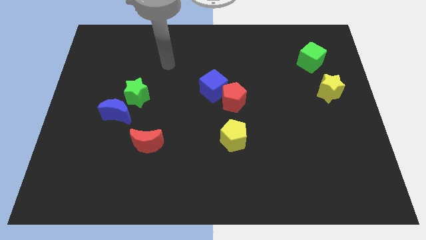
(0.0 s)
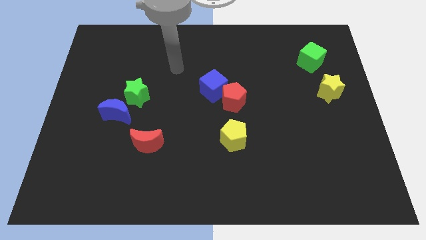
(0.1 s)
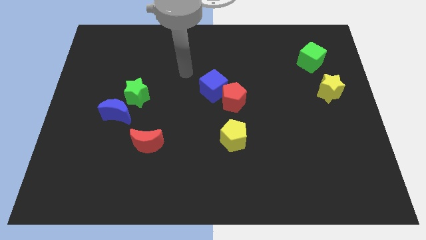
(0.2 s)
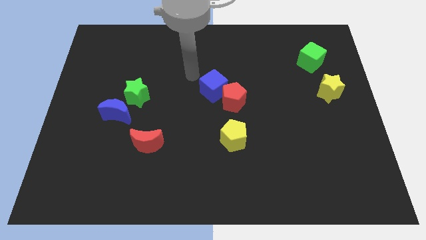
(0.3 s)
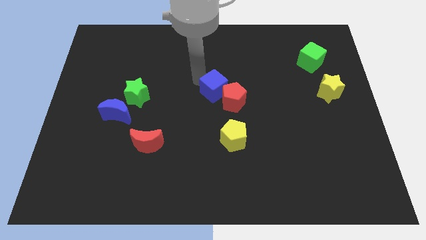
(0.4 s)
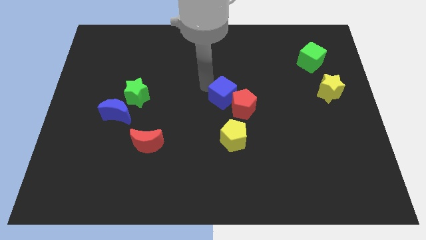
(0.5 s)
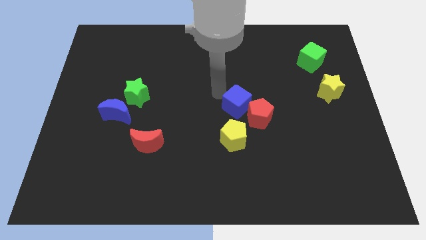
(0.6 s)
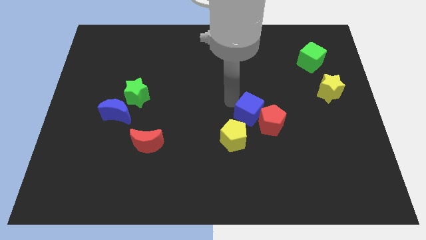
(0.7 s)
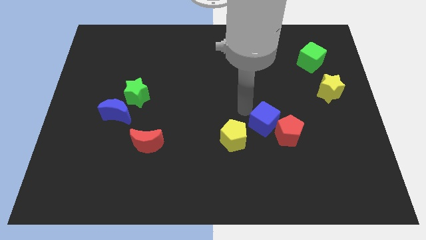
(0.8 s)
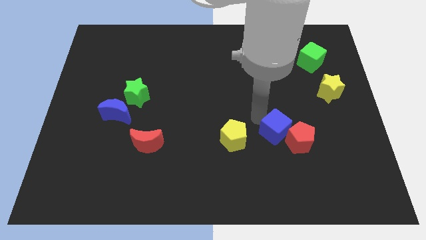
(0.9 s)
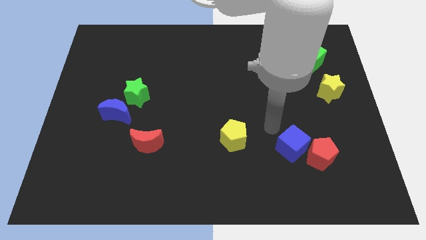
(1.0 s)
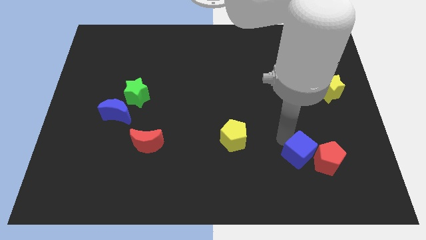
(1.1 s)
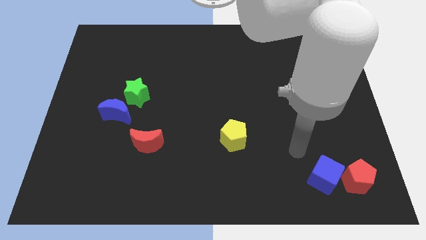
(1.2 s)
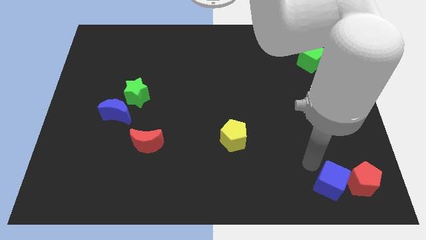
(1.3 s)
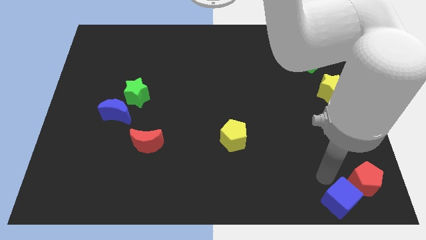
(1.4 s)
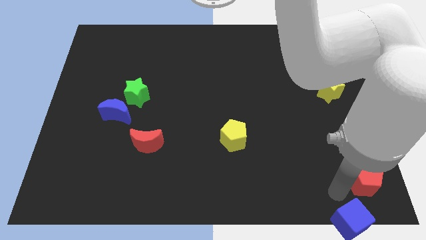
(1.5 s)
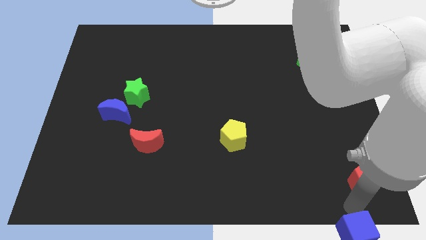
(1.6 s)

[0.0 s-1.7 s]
move the red pentagon away from the blue cube

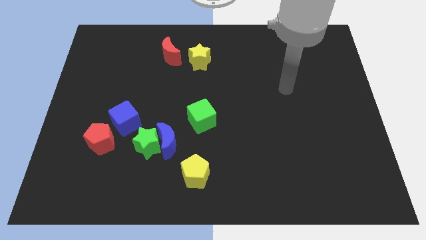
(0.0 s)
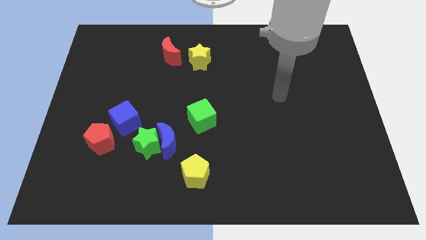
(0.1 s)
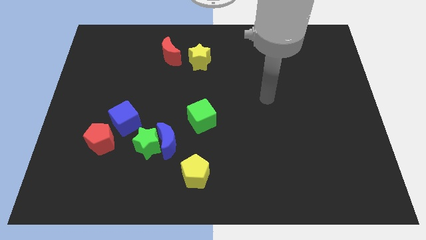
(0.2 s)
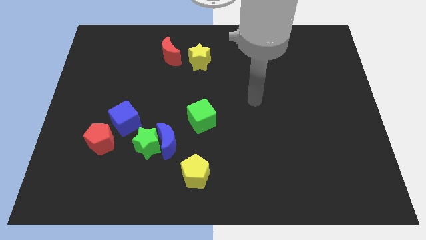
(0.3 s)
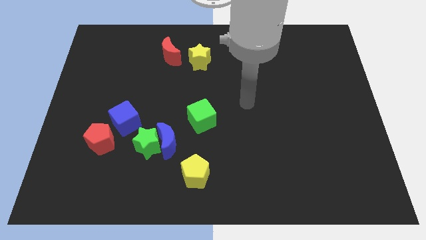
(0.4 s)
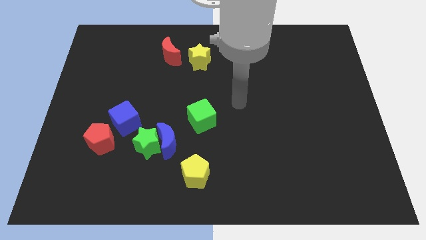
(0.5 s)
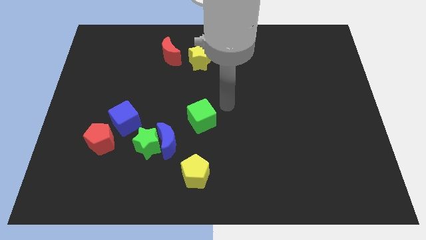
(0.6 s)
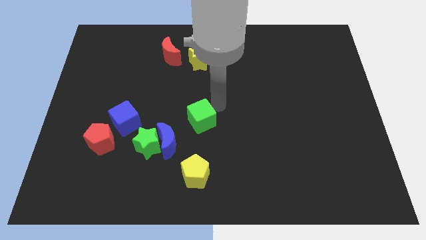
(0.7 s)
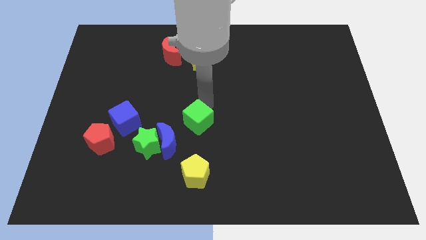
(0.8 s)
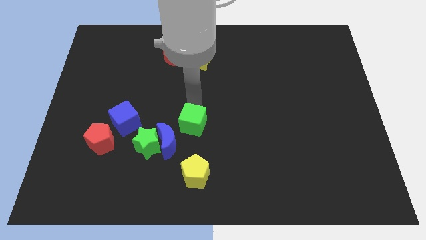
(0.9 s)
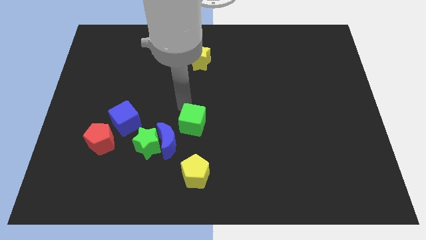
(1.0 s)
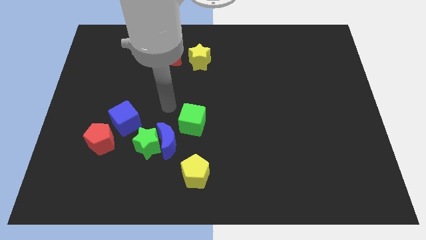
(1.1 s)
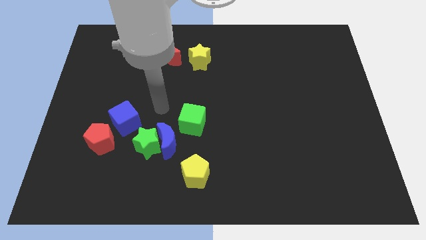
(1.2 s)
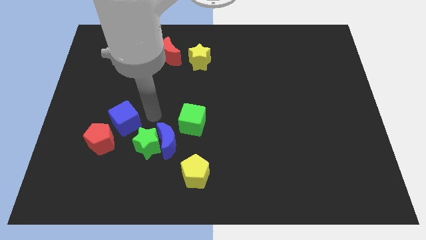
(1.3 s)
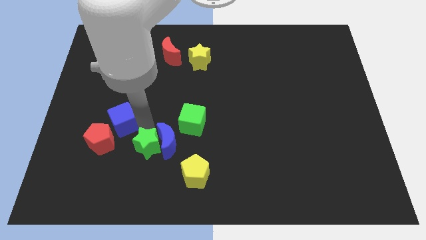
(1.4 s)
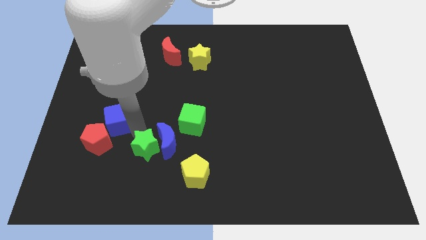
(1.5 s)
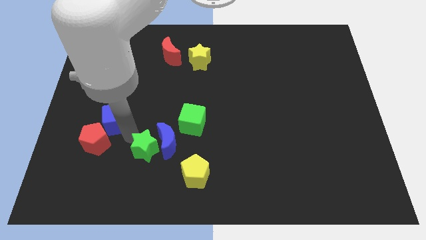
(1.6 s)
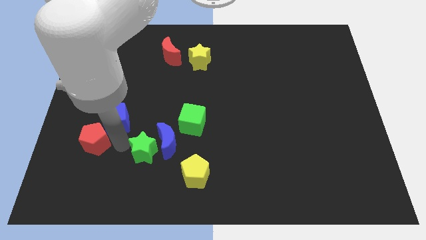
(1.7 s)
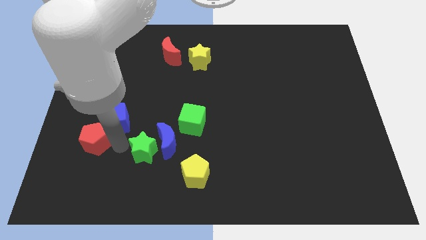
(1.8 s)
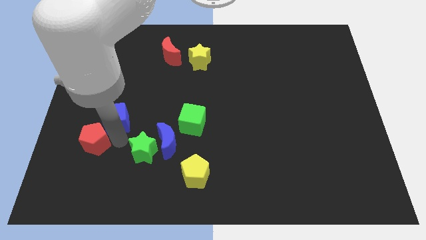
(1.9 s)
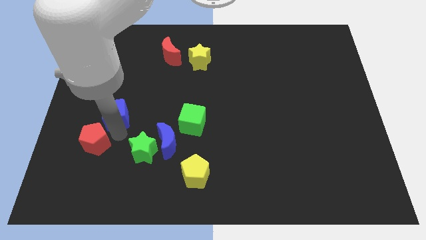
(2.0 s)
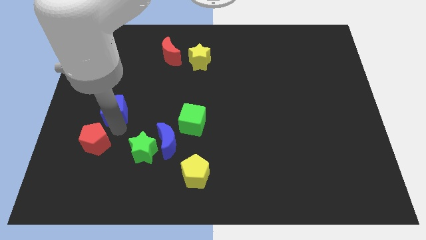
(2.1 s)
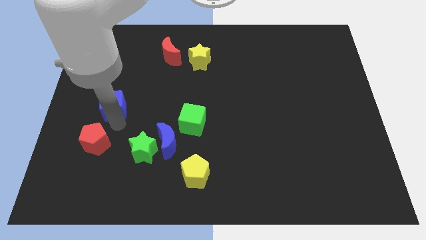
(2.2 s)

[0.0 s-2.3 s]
pull the blue cube apart from the red pentagon and green star

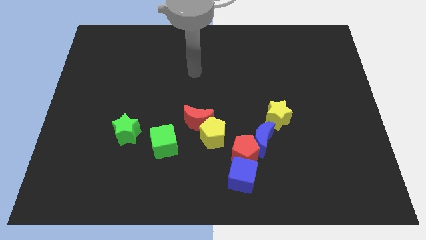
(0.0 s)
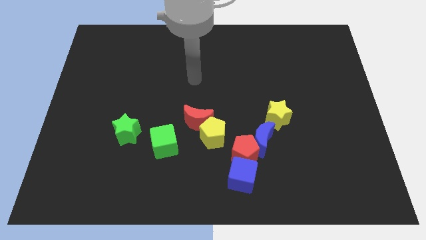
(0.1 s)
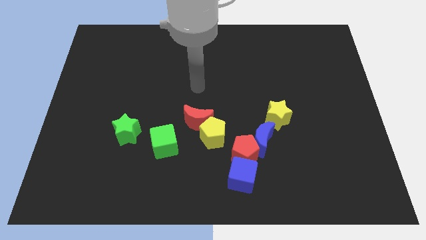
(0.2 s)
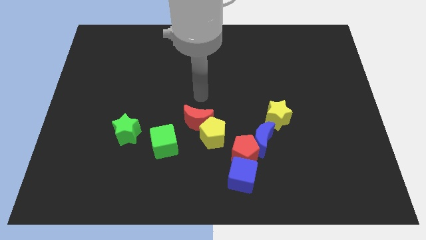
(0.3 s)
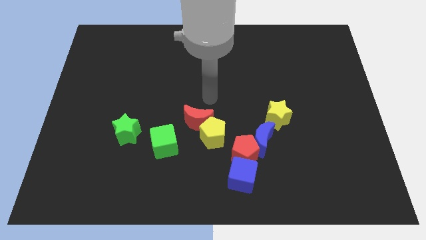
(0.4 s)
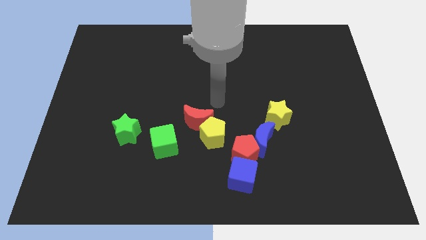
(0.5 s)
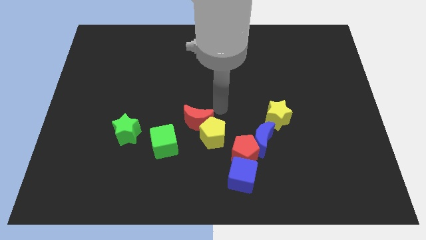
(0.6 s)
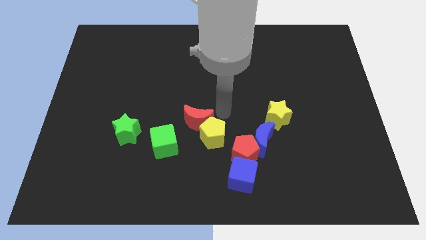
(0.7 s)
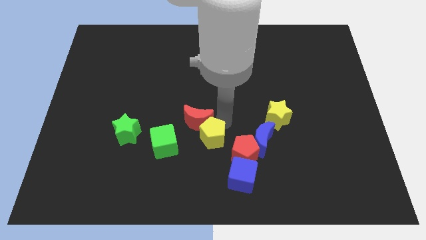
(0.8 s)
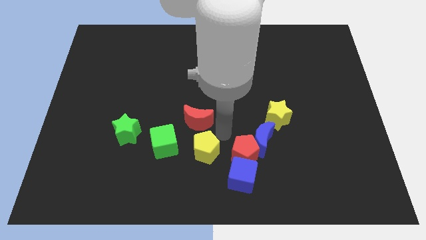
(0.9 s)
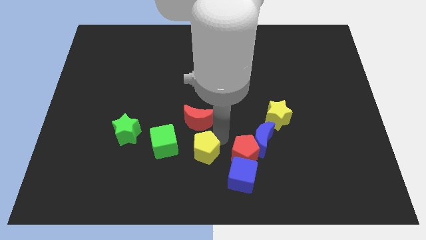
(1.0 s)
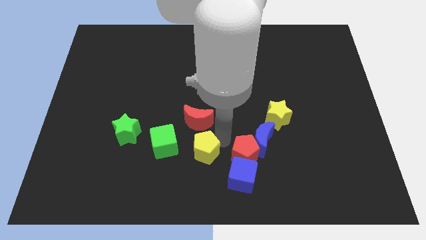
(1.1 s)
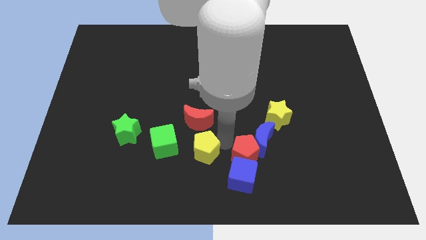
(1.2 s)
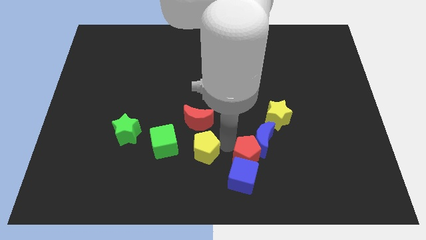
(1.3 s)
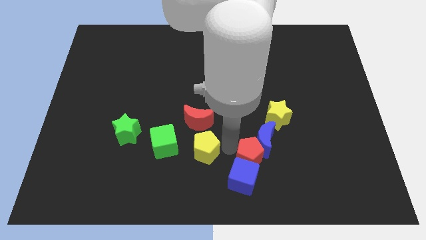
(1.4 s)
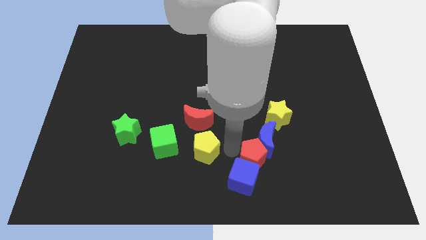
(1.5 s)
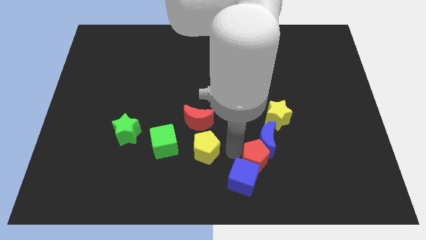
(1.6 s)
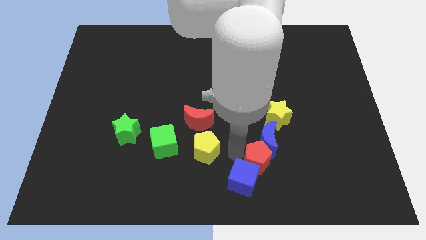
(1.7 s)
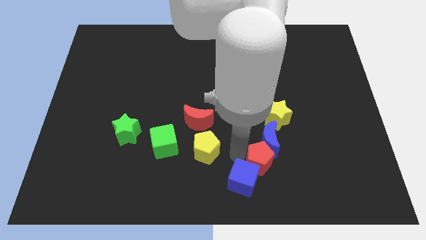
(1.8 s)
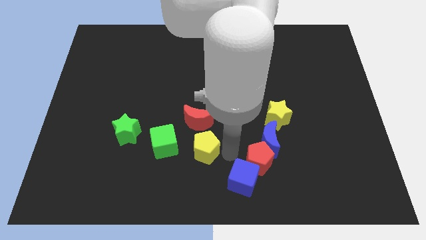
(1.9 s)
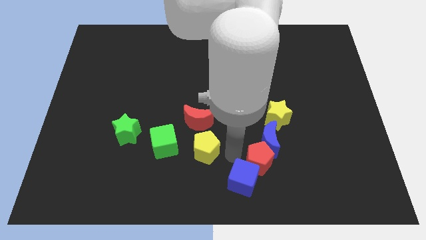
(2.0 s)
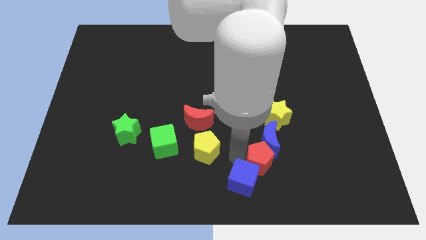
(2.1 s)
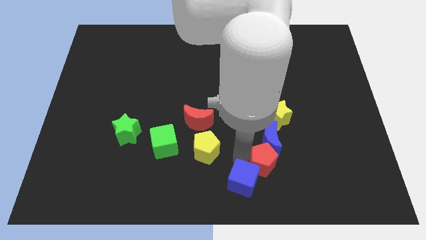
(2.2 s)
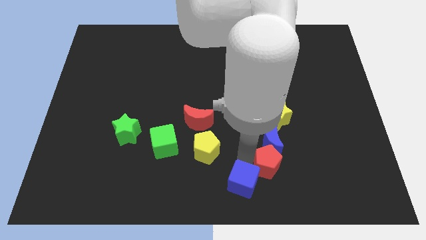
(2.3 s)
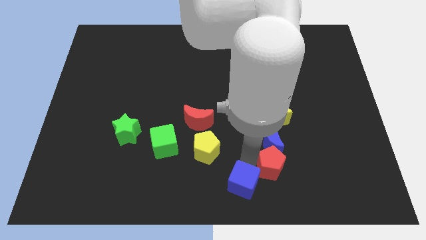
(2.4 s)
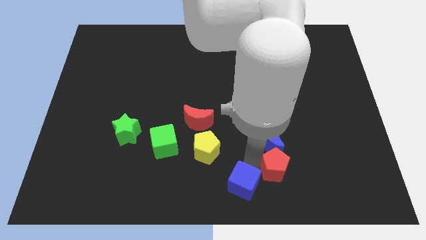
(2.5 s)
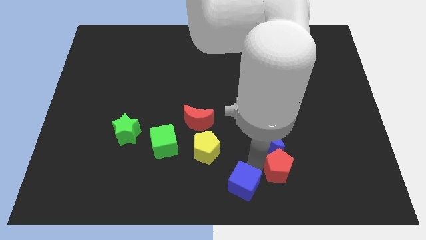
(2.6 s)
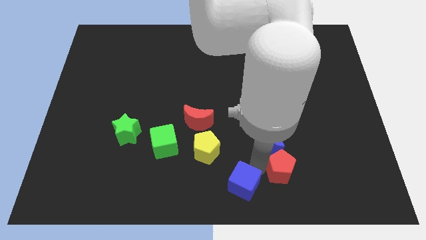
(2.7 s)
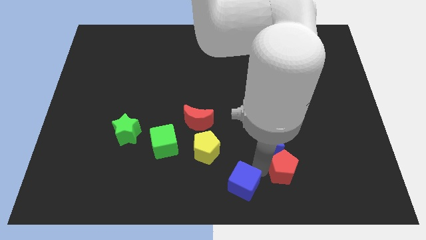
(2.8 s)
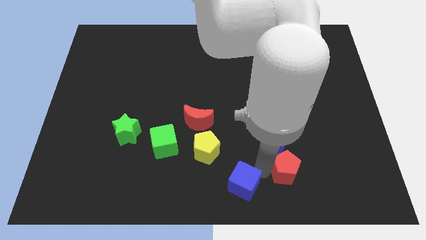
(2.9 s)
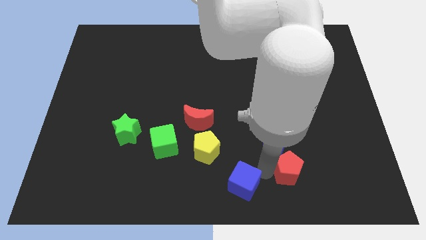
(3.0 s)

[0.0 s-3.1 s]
pull the red pentagon apart from the group of blocks

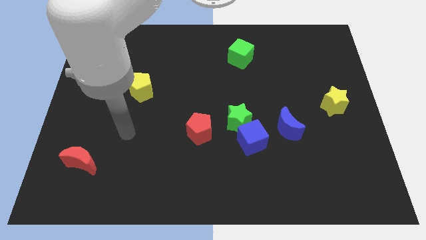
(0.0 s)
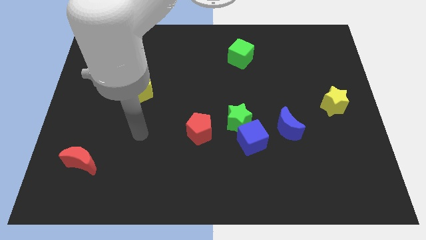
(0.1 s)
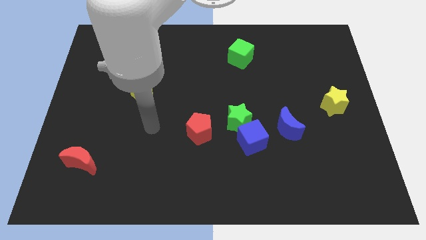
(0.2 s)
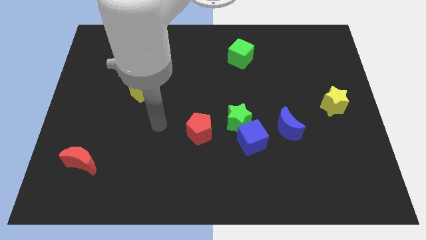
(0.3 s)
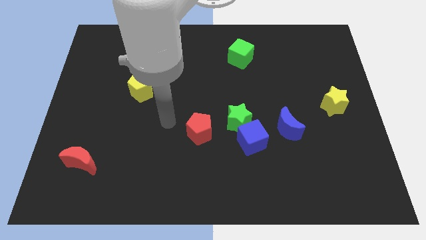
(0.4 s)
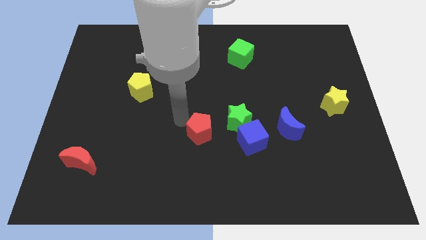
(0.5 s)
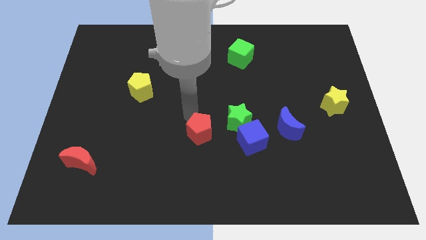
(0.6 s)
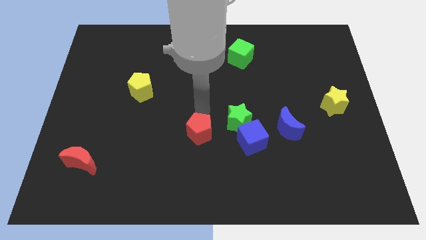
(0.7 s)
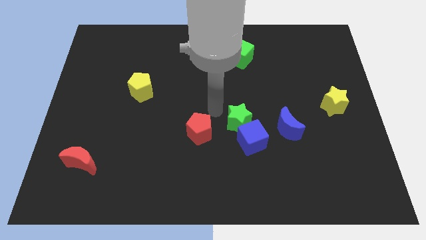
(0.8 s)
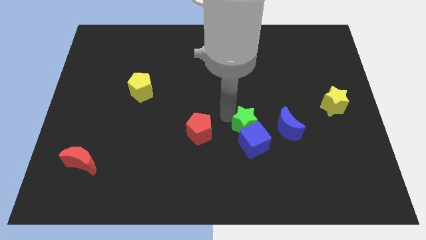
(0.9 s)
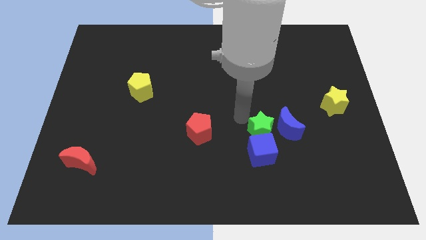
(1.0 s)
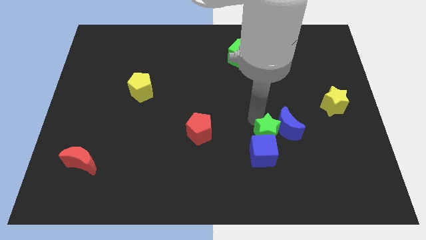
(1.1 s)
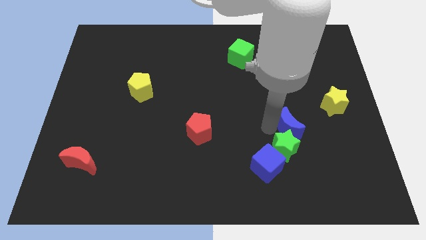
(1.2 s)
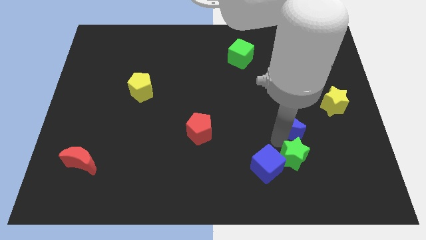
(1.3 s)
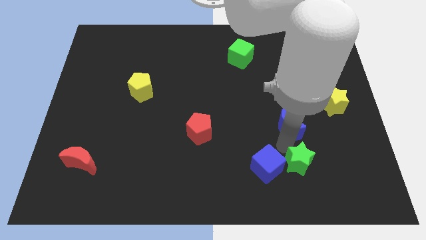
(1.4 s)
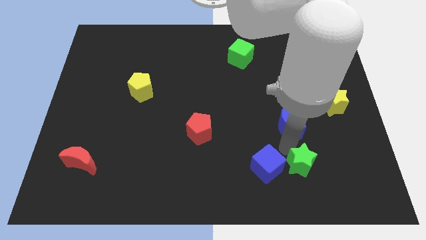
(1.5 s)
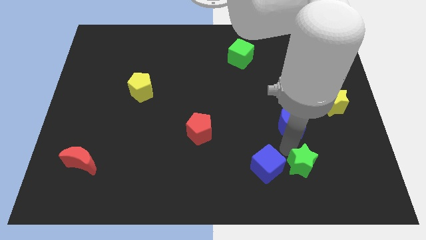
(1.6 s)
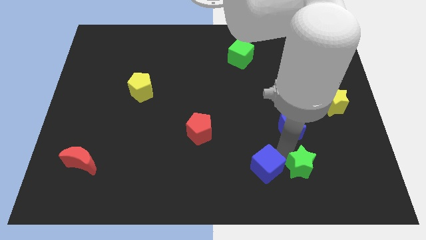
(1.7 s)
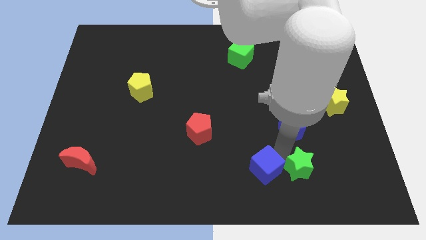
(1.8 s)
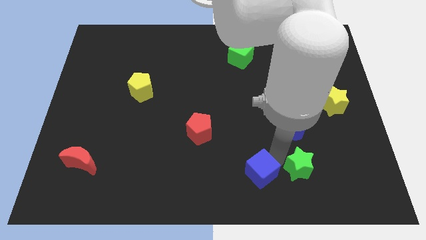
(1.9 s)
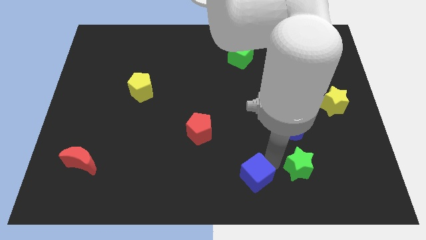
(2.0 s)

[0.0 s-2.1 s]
move the blue cube away from the green star and blue moon
